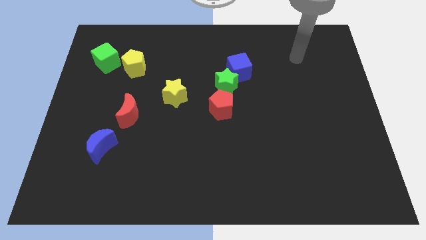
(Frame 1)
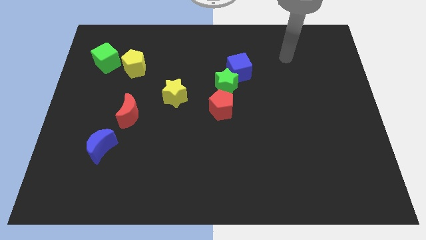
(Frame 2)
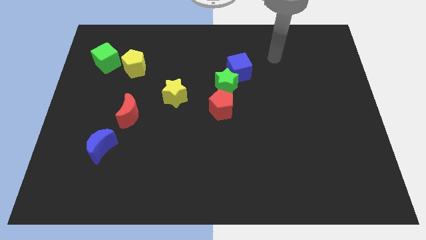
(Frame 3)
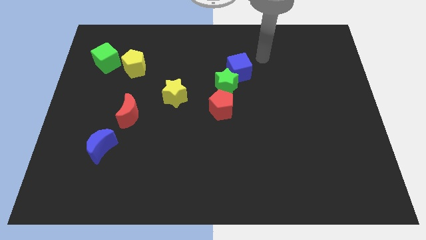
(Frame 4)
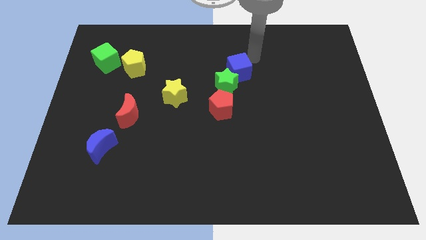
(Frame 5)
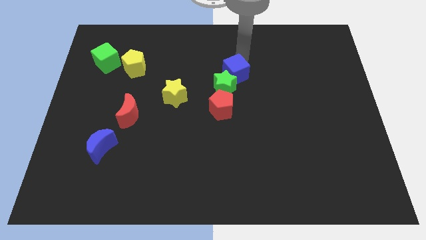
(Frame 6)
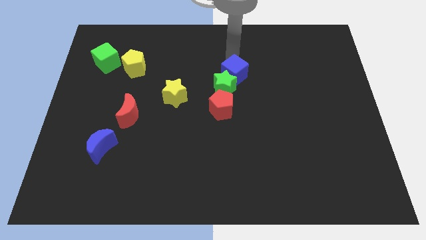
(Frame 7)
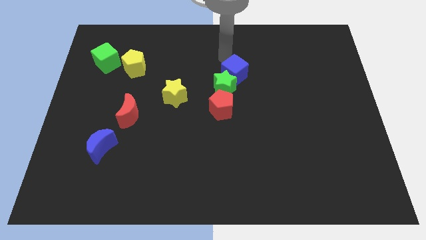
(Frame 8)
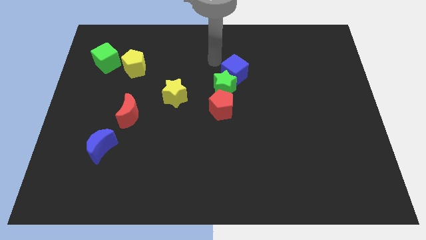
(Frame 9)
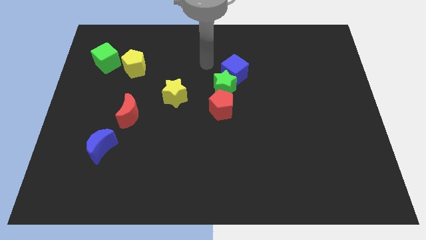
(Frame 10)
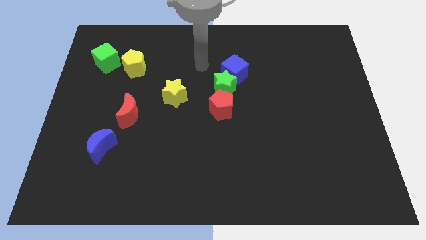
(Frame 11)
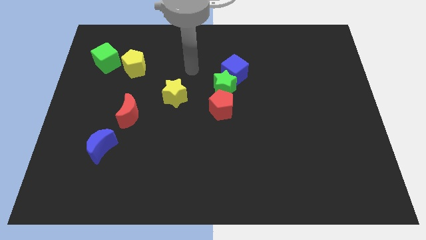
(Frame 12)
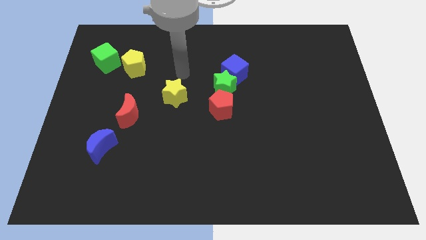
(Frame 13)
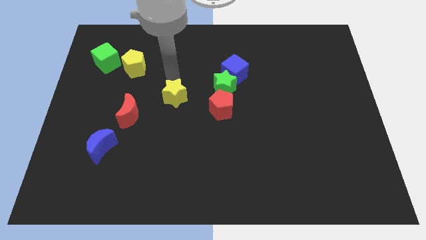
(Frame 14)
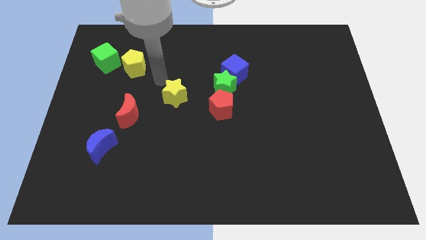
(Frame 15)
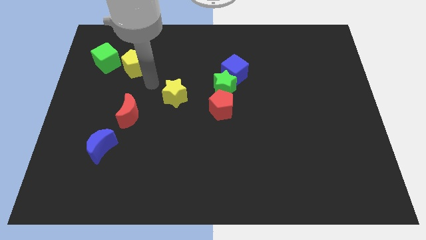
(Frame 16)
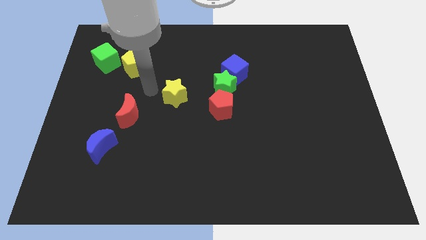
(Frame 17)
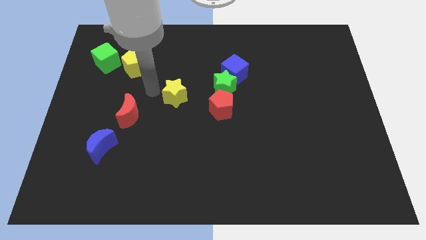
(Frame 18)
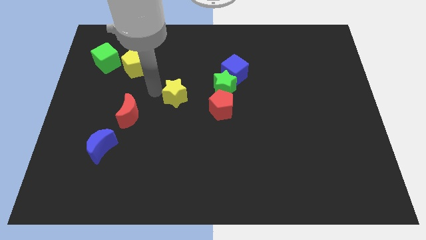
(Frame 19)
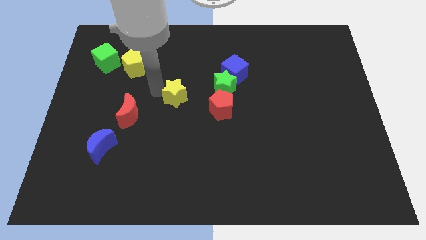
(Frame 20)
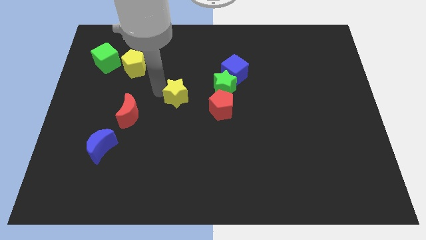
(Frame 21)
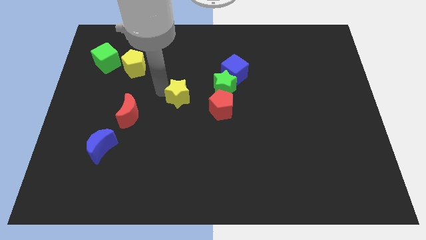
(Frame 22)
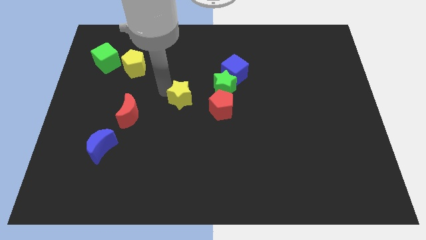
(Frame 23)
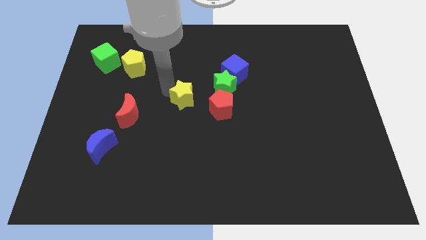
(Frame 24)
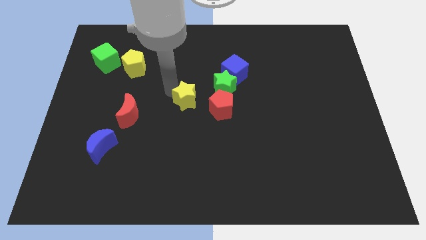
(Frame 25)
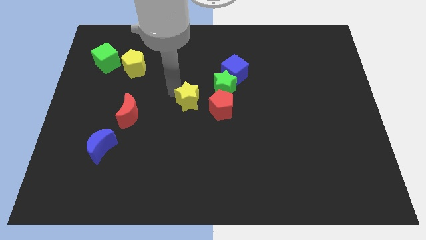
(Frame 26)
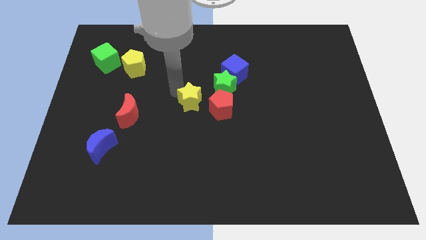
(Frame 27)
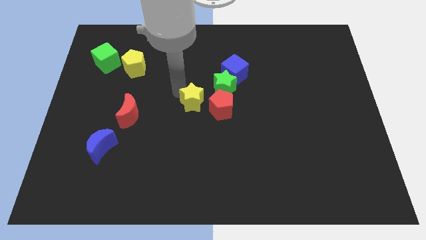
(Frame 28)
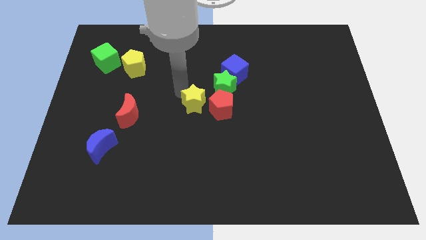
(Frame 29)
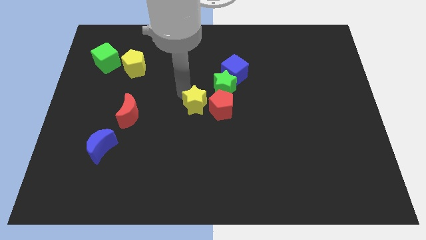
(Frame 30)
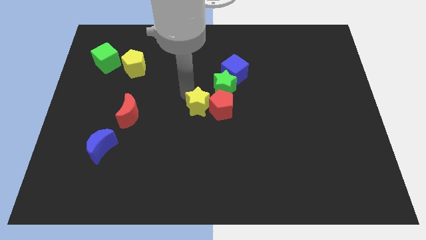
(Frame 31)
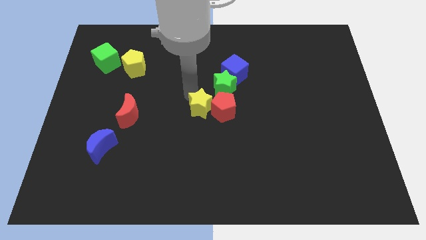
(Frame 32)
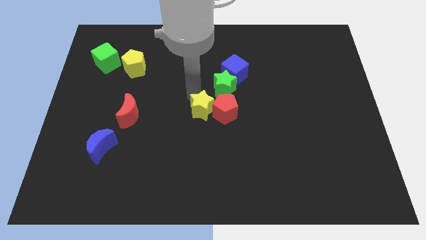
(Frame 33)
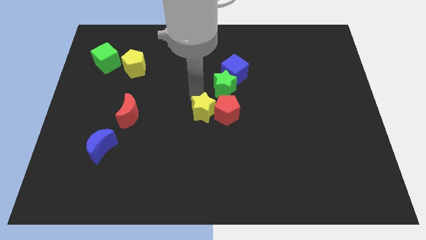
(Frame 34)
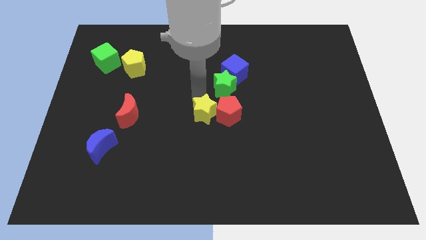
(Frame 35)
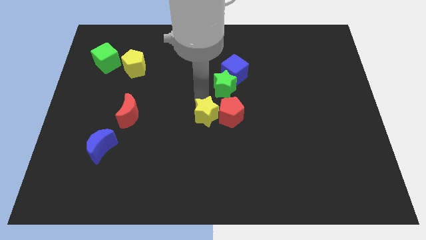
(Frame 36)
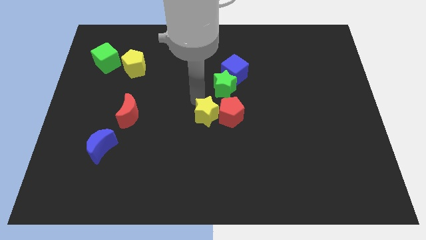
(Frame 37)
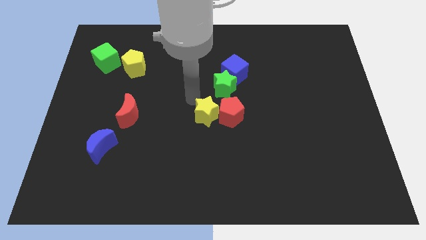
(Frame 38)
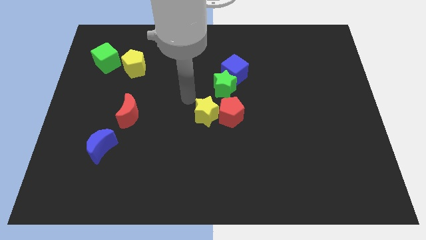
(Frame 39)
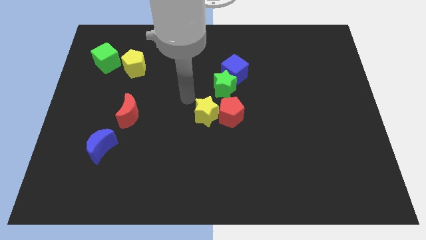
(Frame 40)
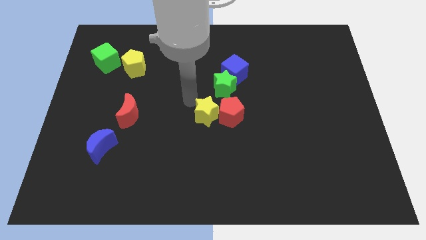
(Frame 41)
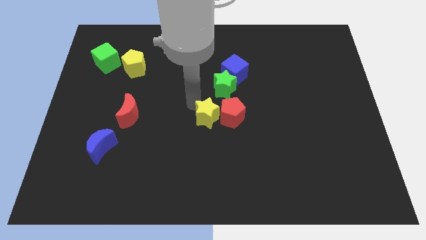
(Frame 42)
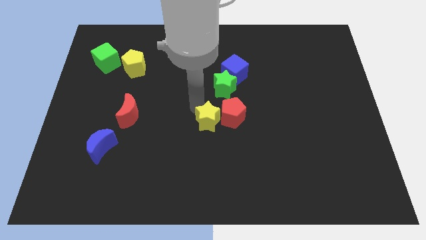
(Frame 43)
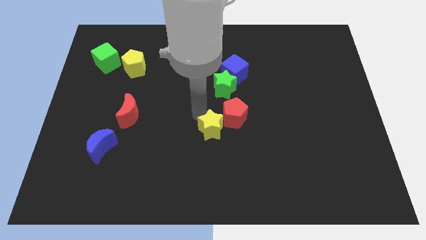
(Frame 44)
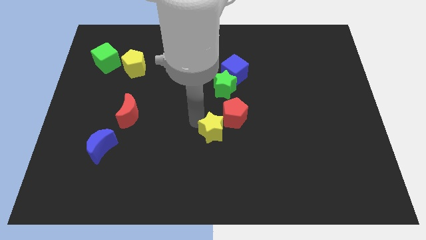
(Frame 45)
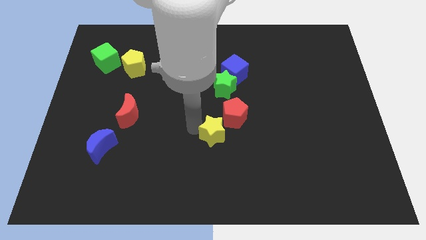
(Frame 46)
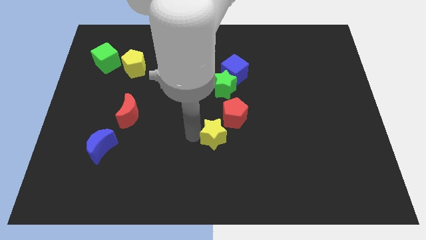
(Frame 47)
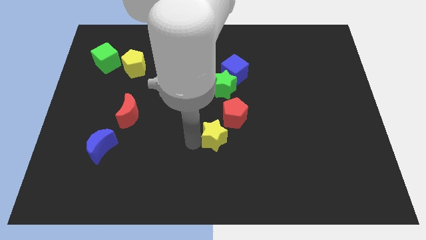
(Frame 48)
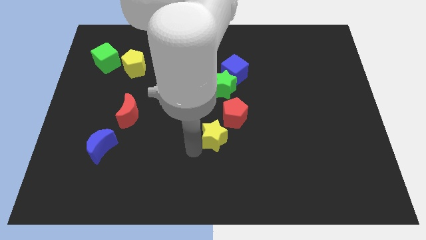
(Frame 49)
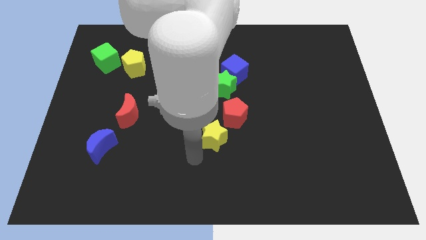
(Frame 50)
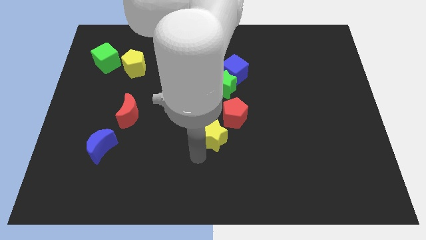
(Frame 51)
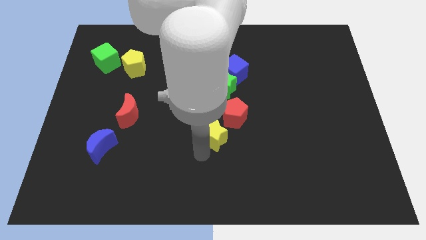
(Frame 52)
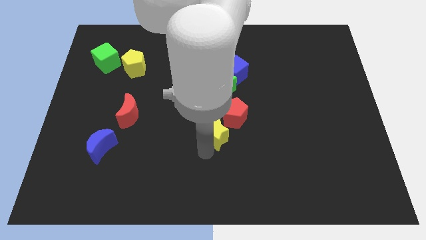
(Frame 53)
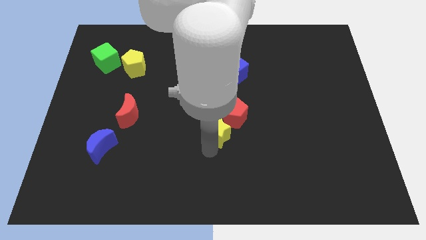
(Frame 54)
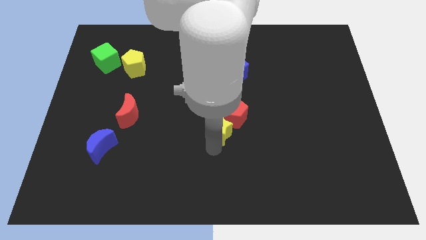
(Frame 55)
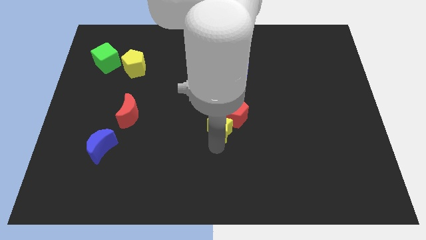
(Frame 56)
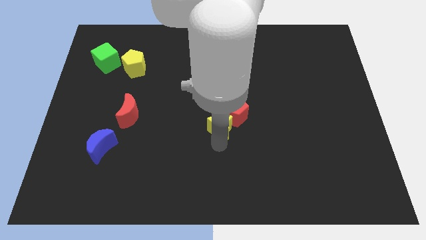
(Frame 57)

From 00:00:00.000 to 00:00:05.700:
push the yellow star to the right somewhat

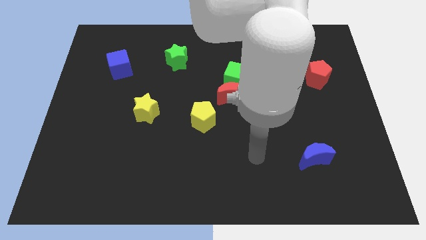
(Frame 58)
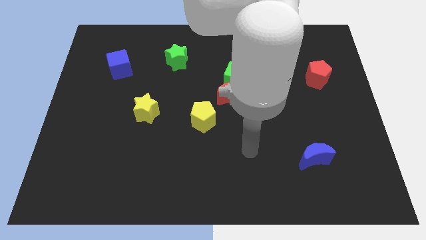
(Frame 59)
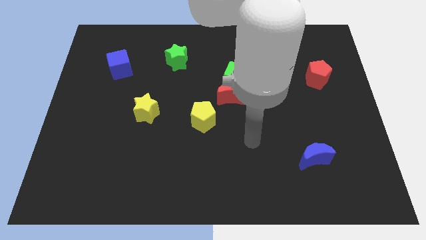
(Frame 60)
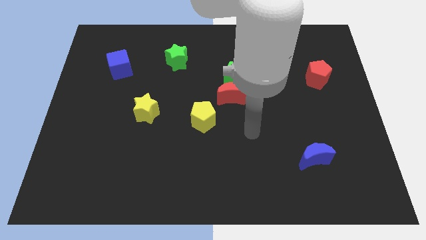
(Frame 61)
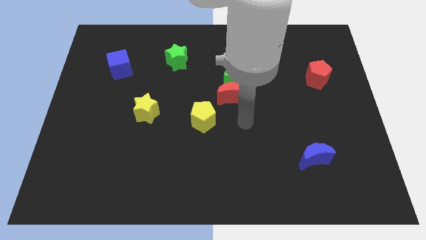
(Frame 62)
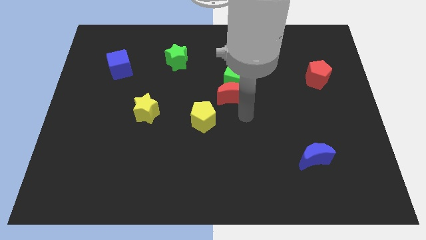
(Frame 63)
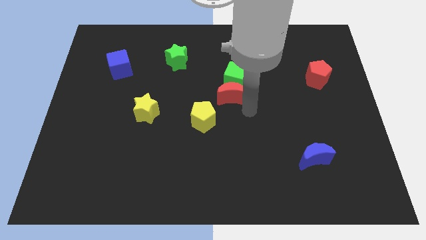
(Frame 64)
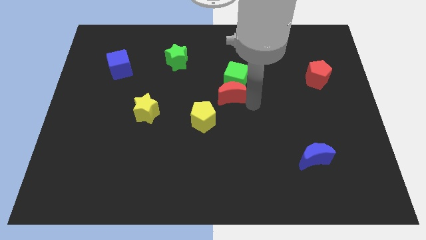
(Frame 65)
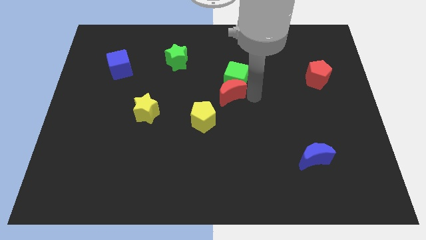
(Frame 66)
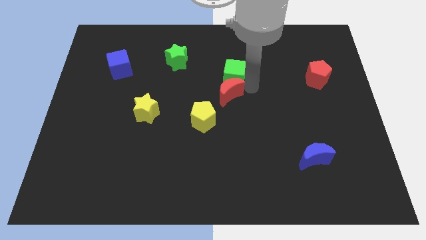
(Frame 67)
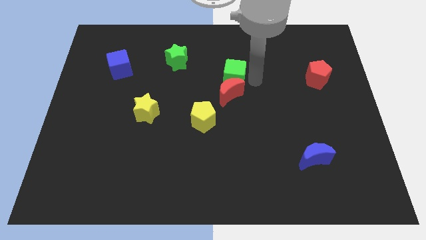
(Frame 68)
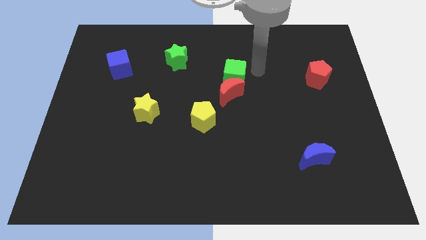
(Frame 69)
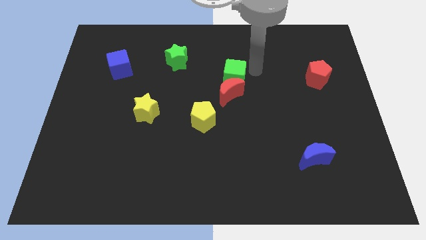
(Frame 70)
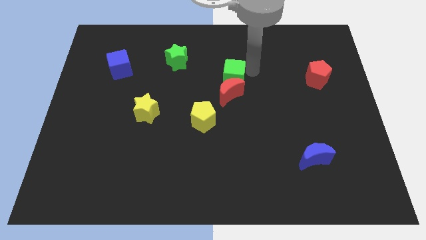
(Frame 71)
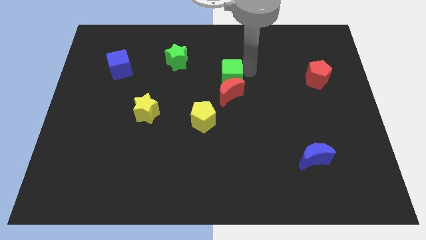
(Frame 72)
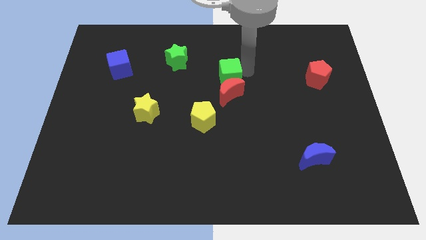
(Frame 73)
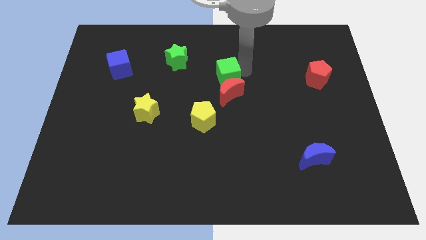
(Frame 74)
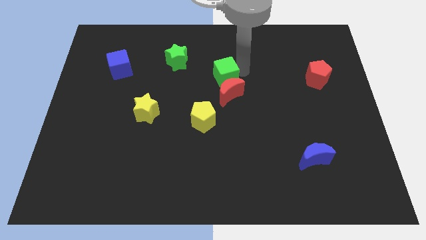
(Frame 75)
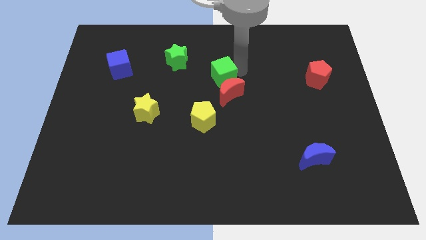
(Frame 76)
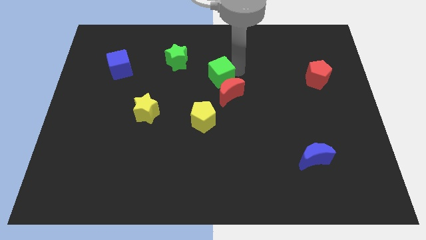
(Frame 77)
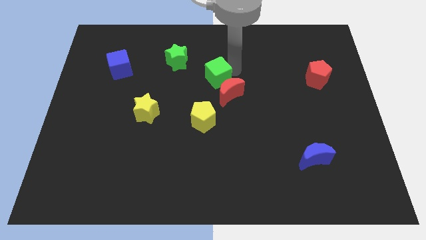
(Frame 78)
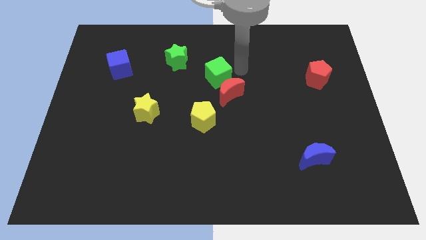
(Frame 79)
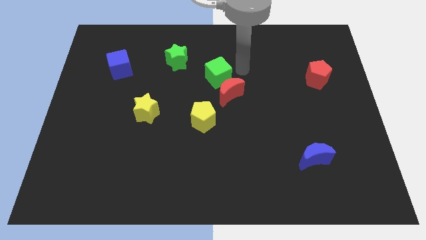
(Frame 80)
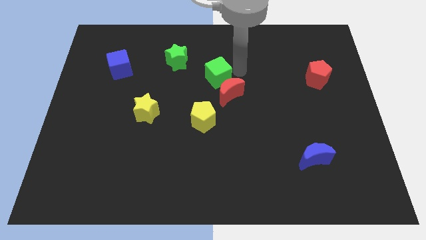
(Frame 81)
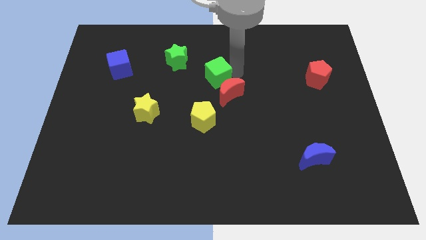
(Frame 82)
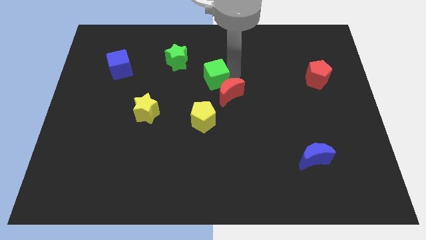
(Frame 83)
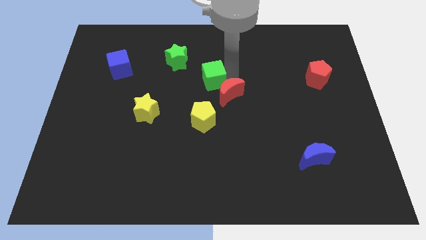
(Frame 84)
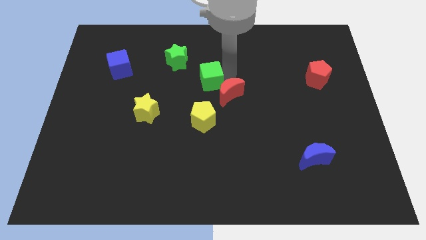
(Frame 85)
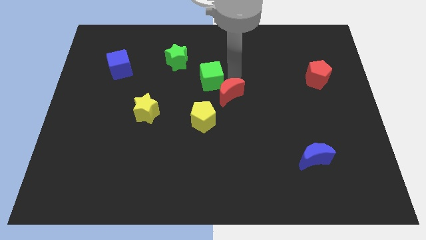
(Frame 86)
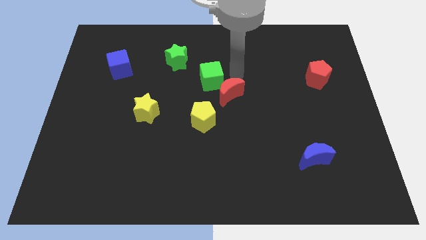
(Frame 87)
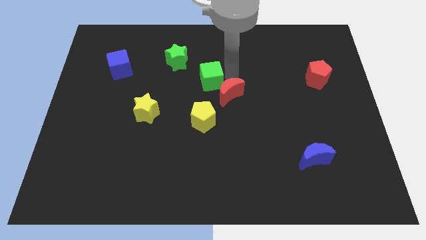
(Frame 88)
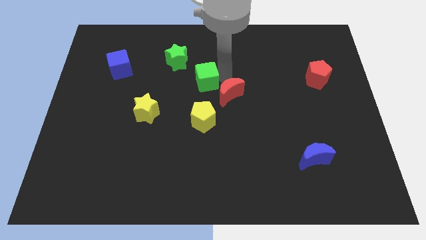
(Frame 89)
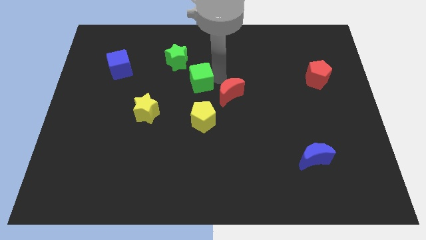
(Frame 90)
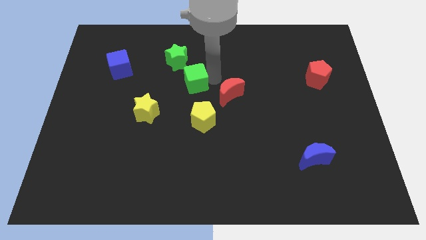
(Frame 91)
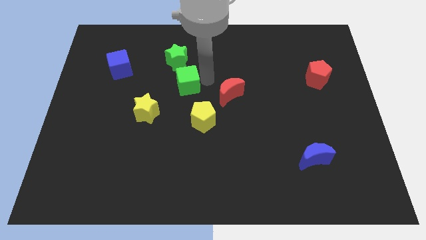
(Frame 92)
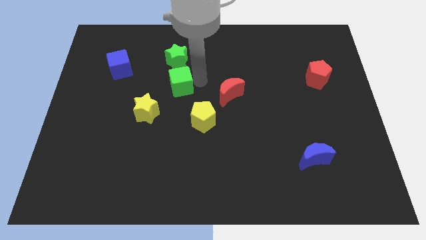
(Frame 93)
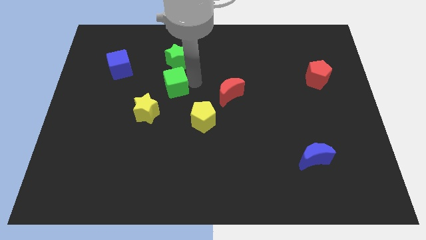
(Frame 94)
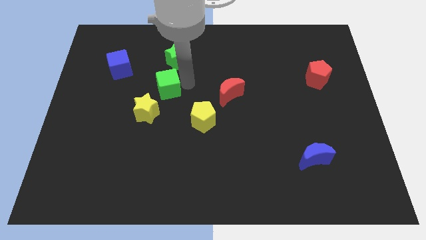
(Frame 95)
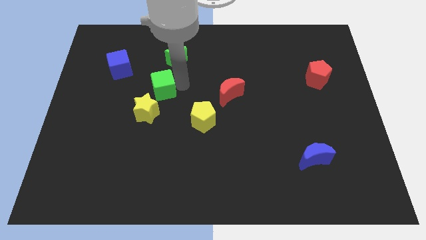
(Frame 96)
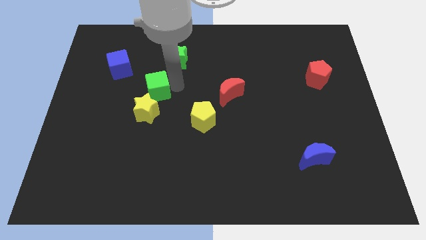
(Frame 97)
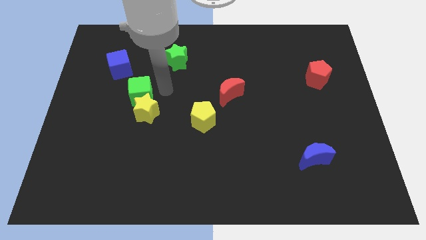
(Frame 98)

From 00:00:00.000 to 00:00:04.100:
move the green cube left
